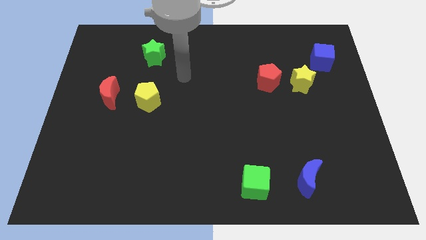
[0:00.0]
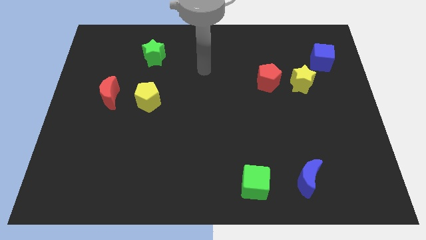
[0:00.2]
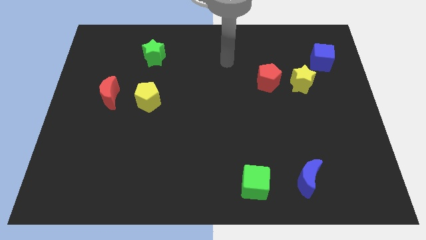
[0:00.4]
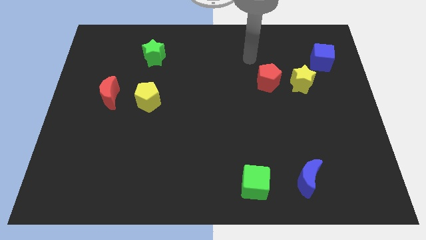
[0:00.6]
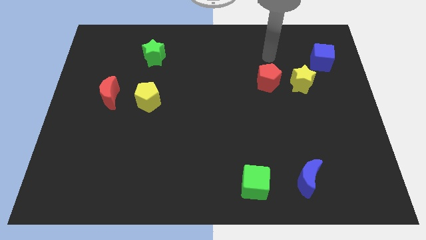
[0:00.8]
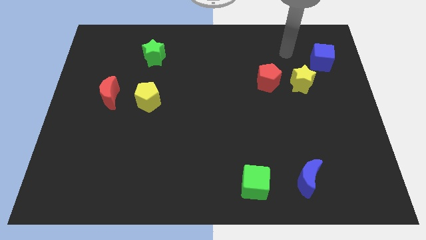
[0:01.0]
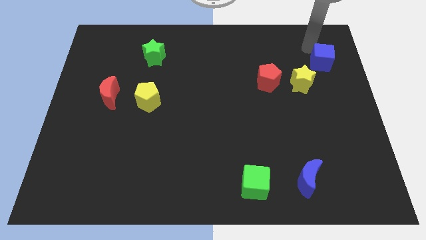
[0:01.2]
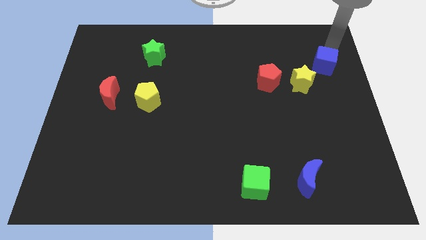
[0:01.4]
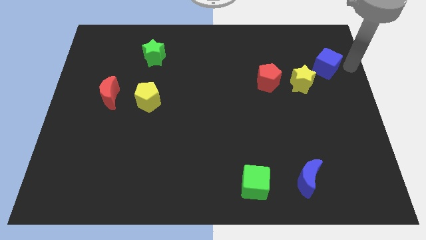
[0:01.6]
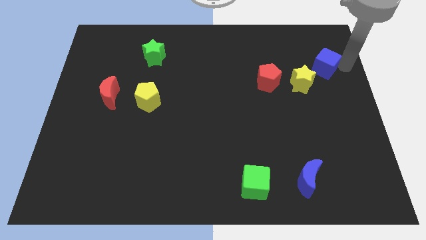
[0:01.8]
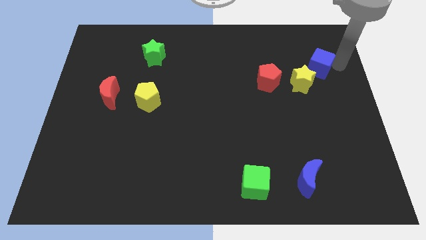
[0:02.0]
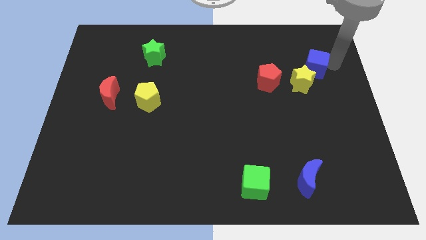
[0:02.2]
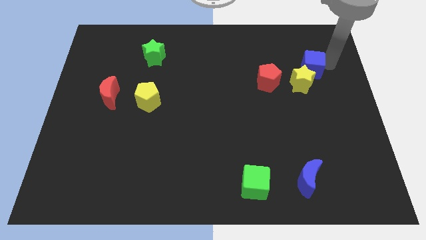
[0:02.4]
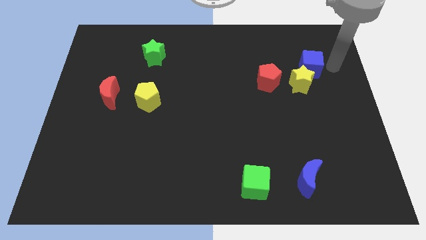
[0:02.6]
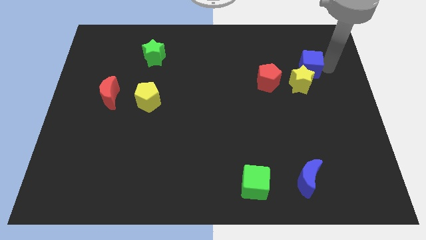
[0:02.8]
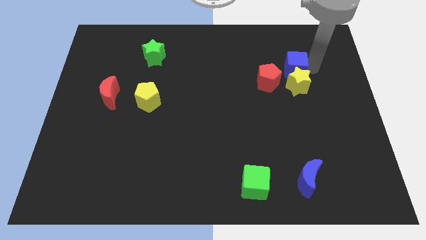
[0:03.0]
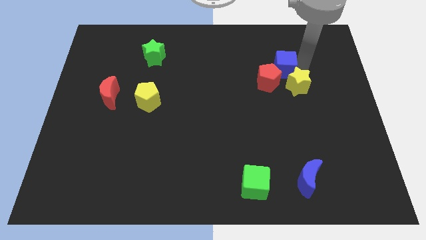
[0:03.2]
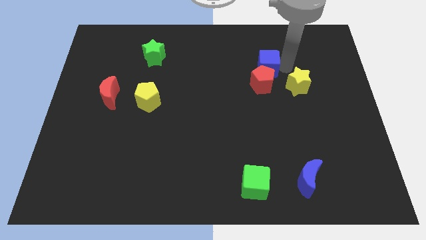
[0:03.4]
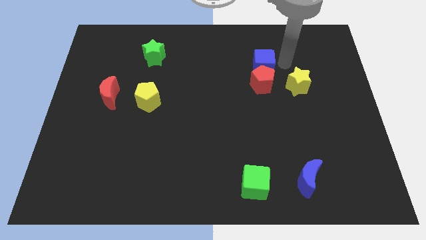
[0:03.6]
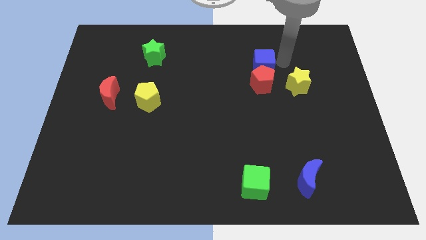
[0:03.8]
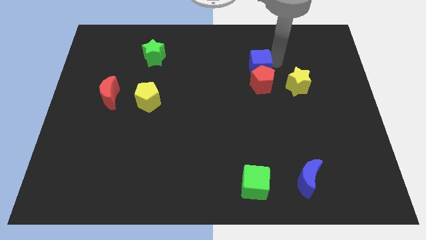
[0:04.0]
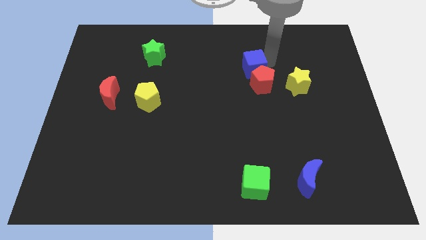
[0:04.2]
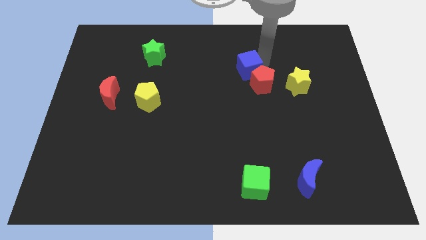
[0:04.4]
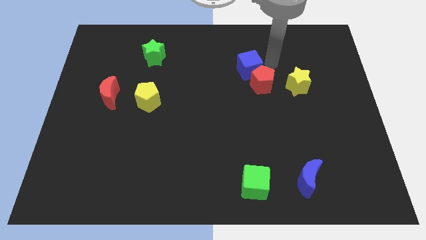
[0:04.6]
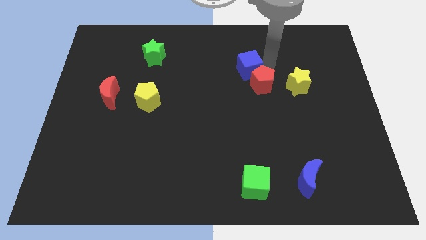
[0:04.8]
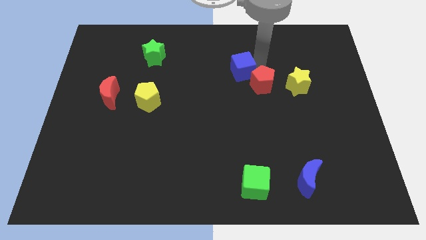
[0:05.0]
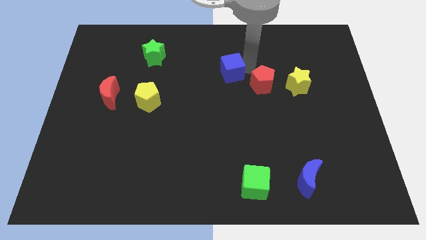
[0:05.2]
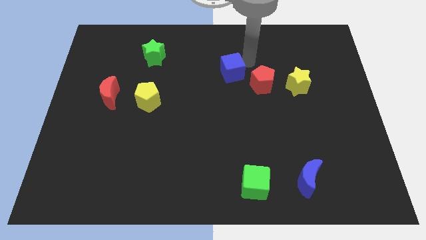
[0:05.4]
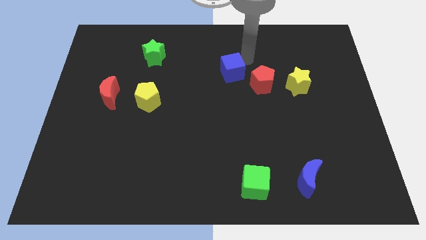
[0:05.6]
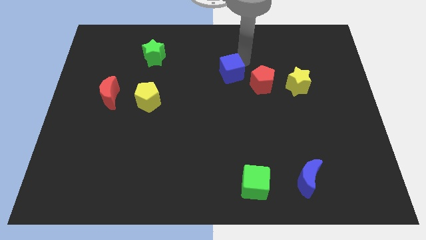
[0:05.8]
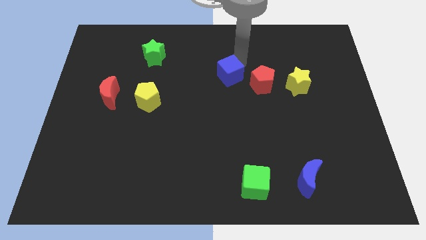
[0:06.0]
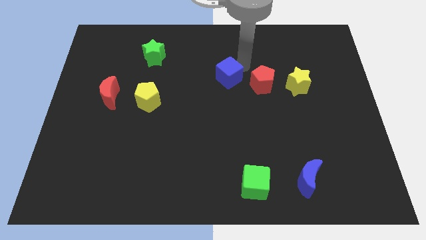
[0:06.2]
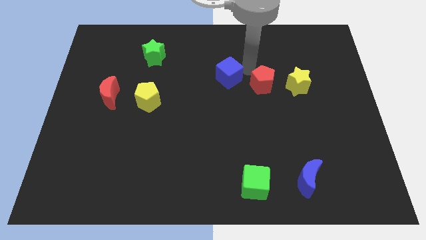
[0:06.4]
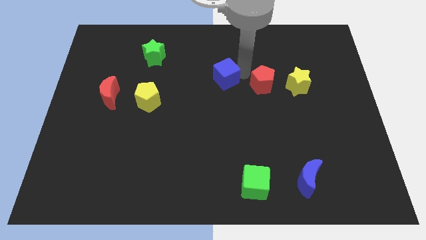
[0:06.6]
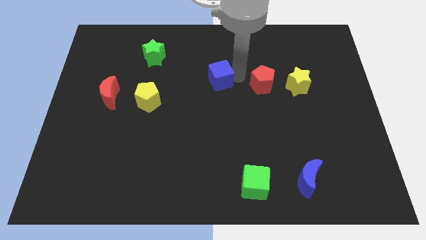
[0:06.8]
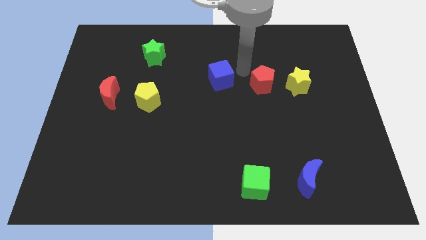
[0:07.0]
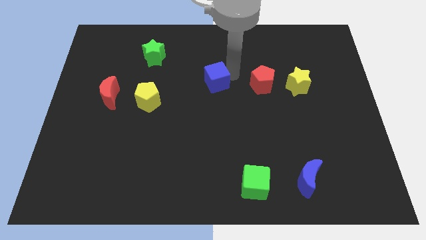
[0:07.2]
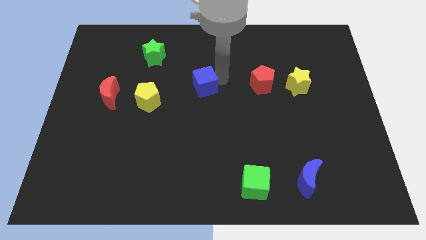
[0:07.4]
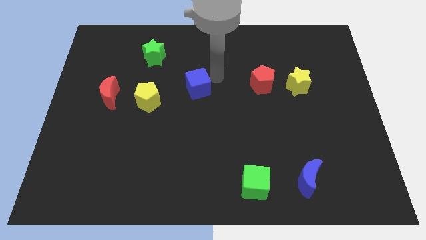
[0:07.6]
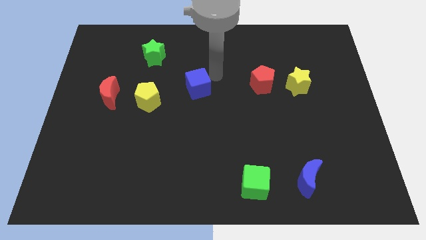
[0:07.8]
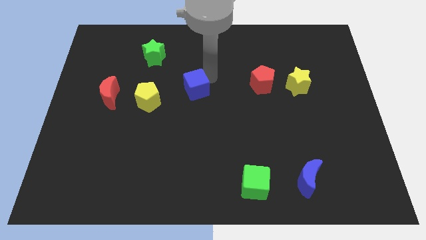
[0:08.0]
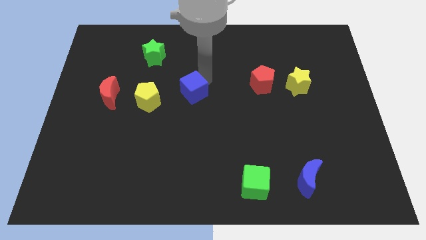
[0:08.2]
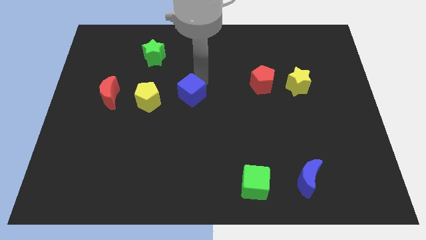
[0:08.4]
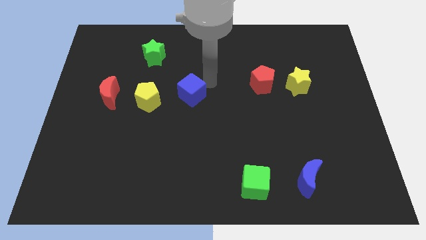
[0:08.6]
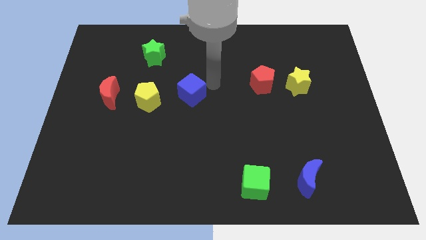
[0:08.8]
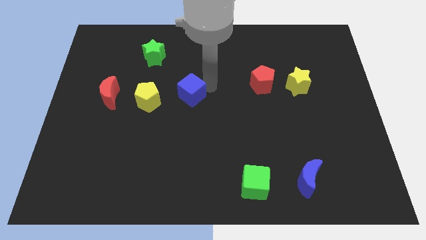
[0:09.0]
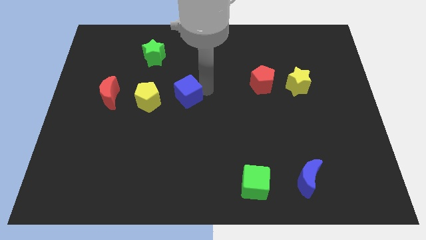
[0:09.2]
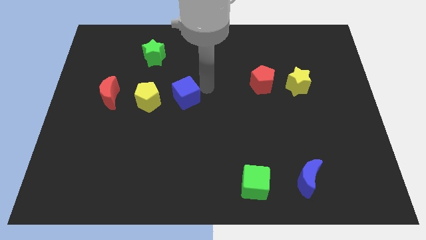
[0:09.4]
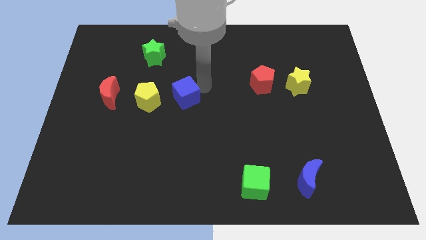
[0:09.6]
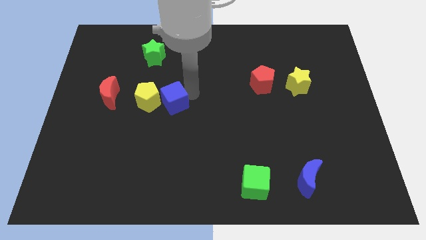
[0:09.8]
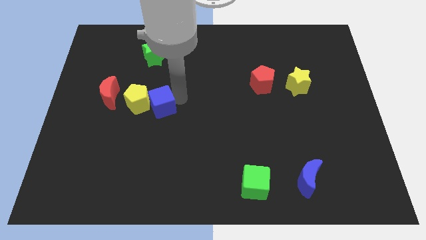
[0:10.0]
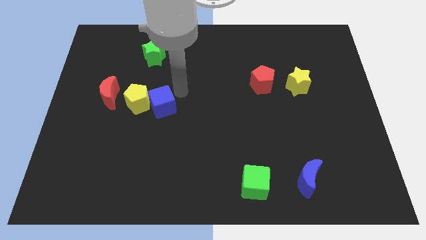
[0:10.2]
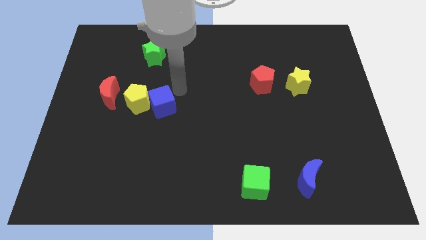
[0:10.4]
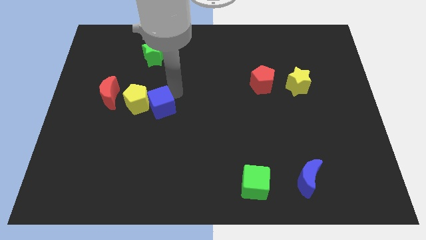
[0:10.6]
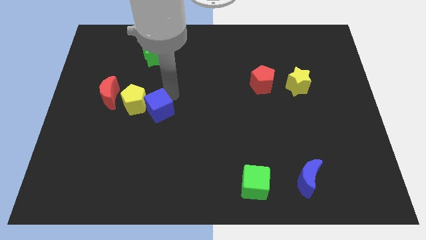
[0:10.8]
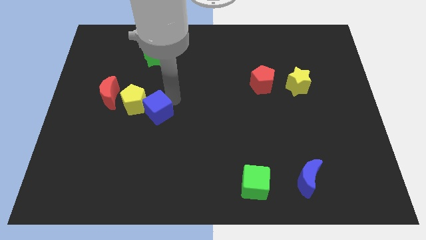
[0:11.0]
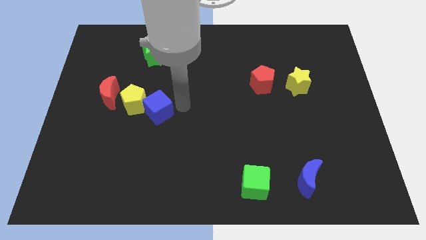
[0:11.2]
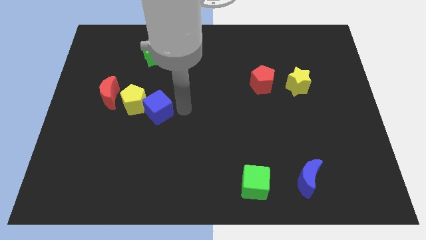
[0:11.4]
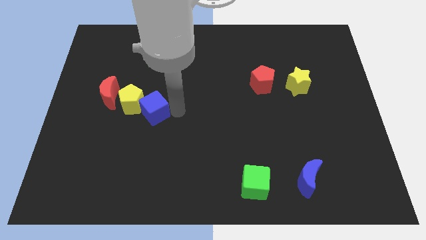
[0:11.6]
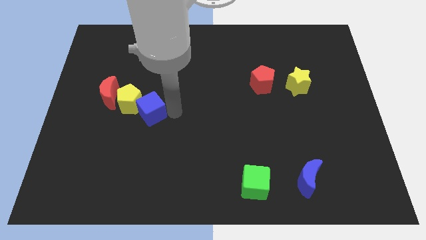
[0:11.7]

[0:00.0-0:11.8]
push the blue cube diagonally down and to the right of the red moon

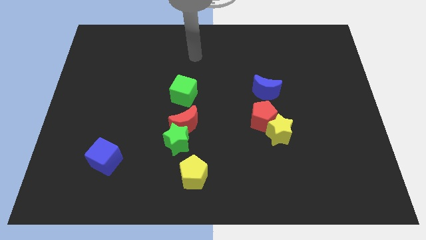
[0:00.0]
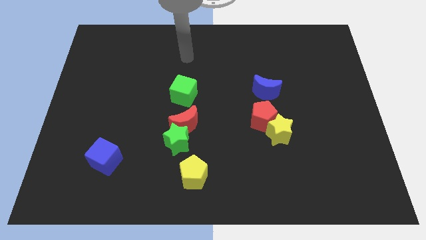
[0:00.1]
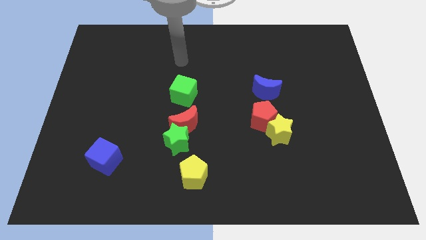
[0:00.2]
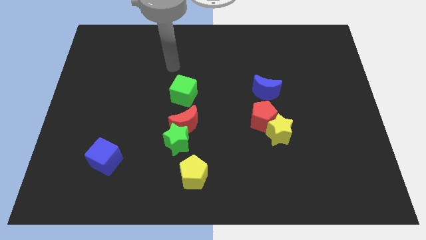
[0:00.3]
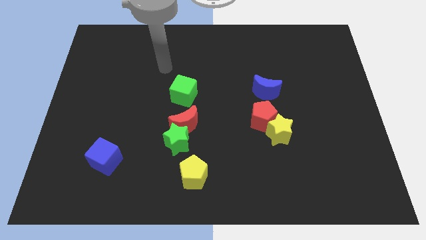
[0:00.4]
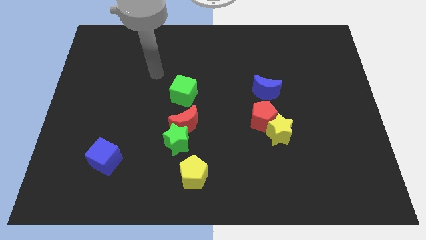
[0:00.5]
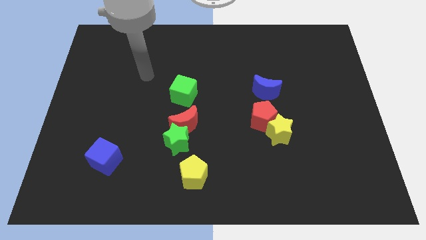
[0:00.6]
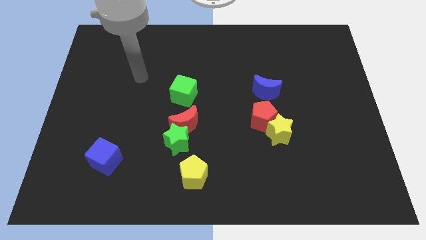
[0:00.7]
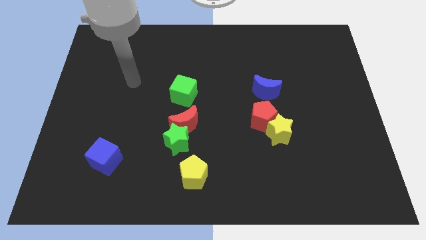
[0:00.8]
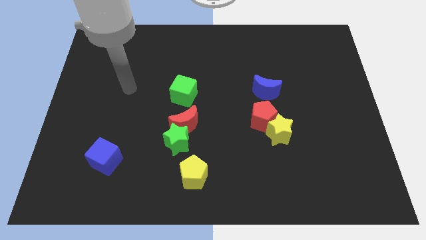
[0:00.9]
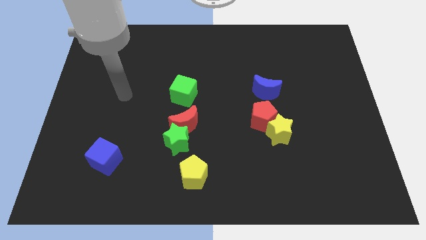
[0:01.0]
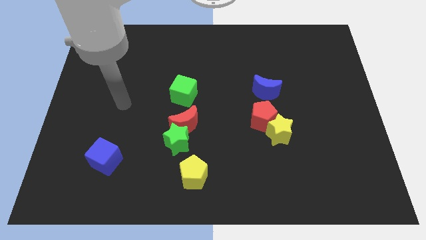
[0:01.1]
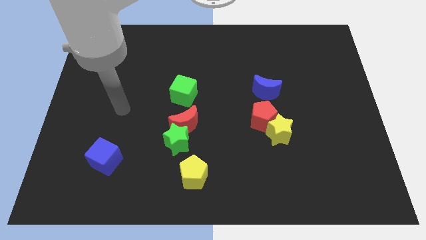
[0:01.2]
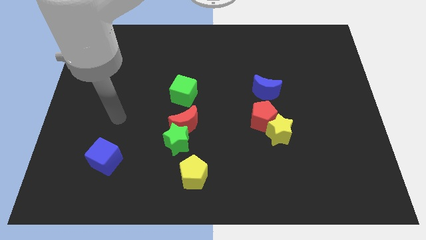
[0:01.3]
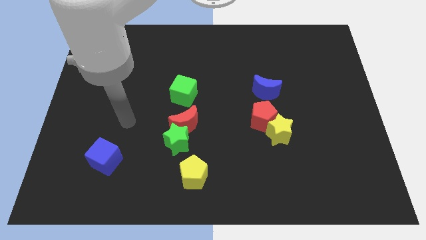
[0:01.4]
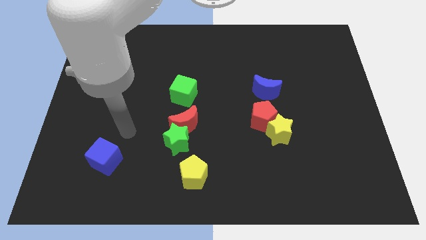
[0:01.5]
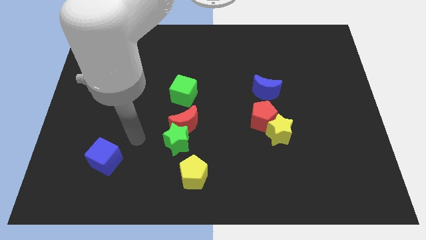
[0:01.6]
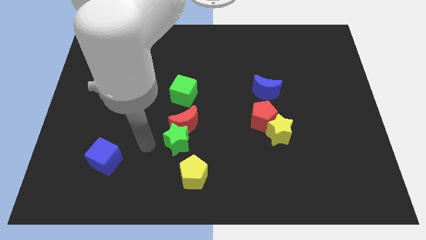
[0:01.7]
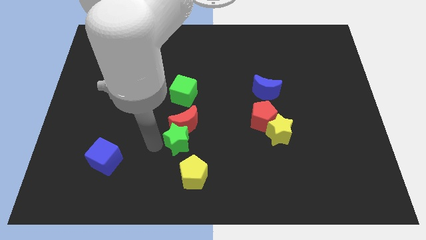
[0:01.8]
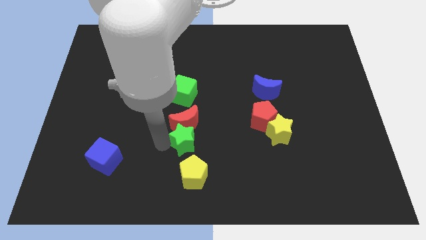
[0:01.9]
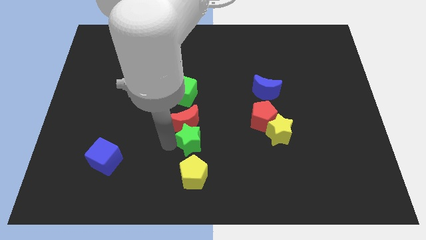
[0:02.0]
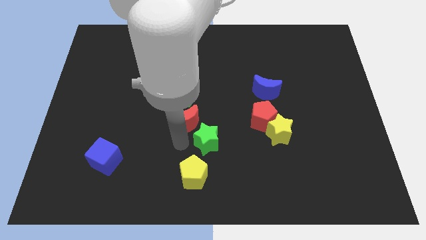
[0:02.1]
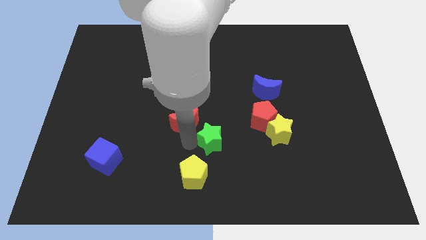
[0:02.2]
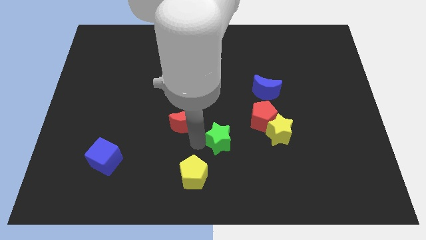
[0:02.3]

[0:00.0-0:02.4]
slide the green star diagonally down and to the left of the red pentagon
